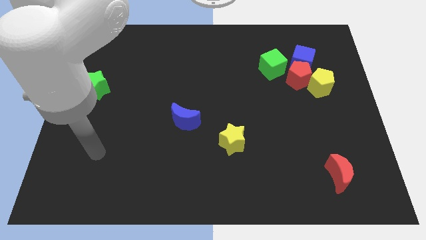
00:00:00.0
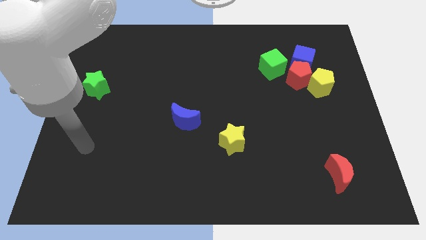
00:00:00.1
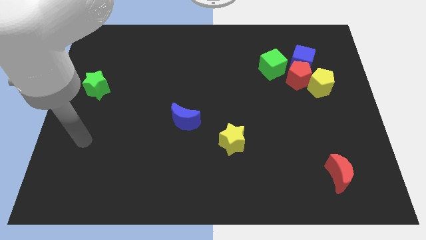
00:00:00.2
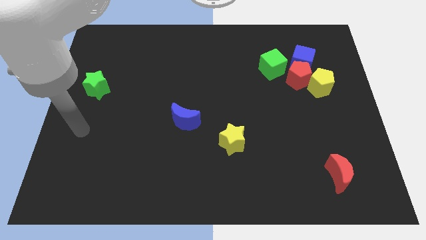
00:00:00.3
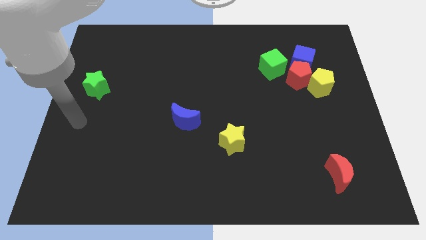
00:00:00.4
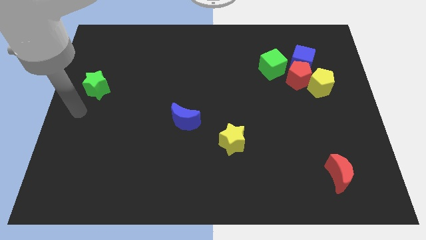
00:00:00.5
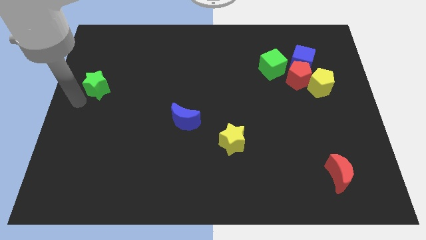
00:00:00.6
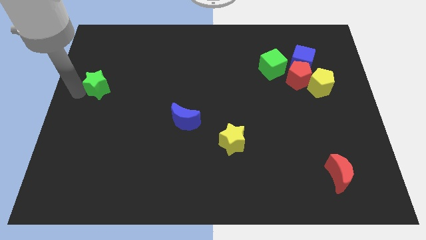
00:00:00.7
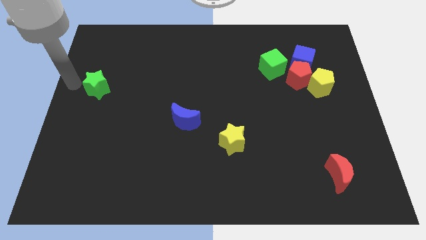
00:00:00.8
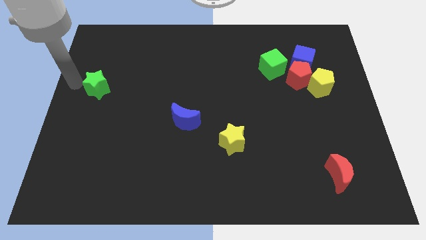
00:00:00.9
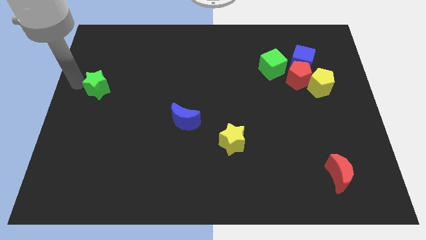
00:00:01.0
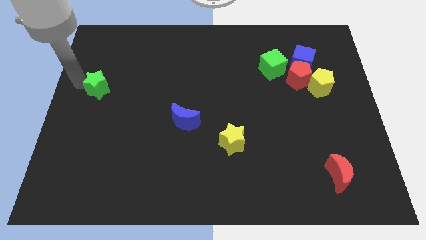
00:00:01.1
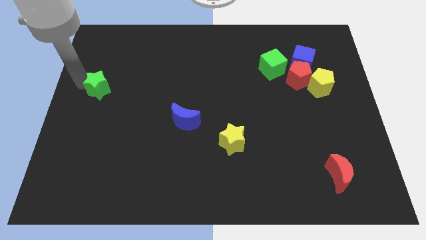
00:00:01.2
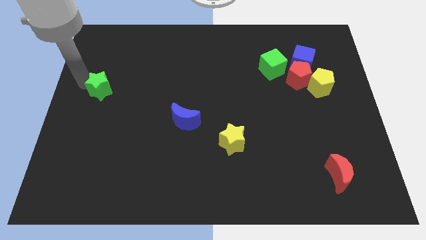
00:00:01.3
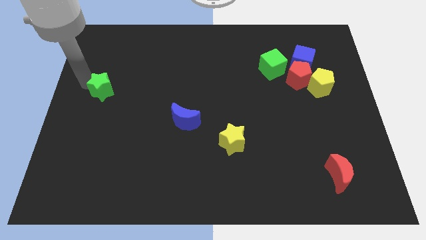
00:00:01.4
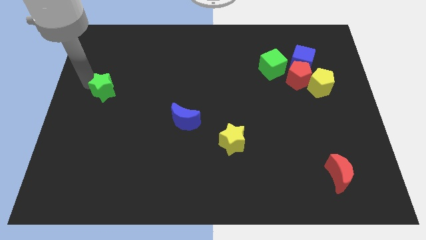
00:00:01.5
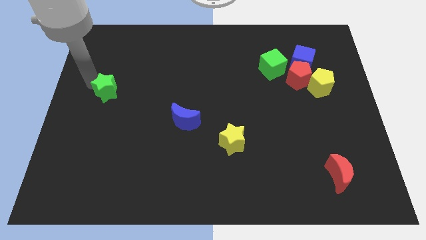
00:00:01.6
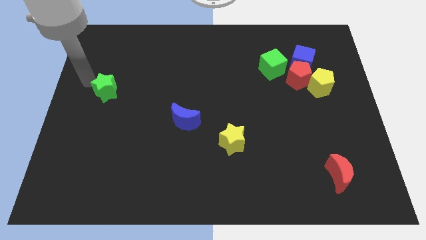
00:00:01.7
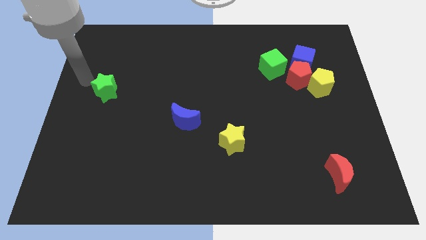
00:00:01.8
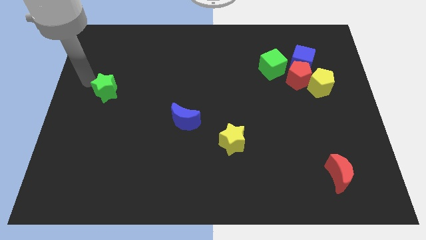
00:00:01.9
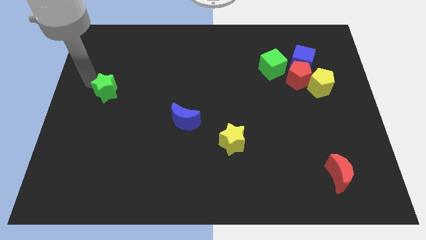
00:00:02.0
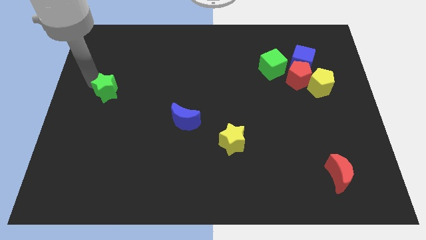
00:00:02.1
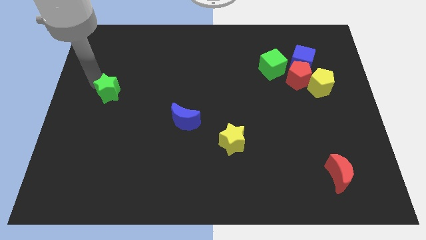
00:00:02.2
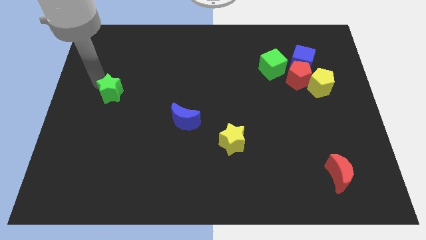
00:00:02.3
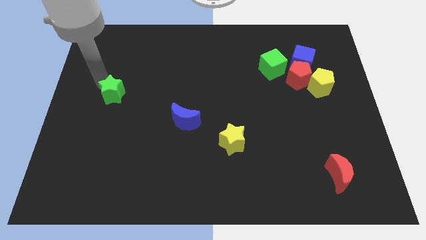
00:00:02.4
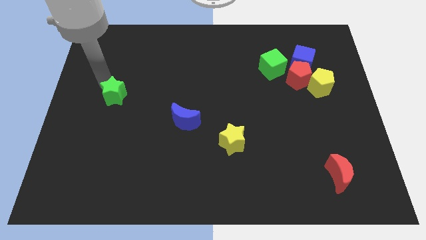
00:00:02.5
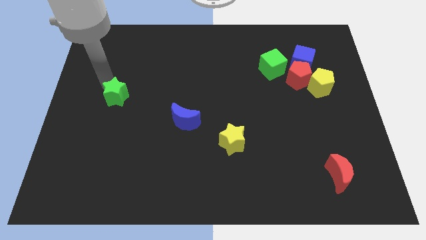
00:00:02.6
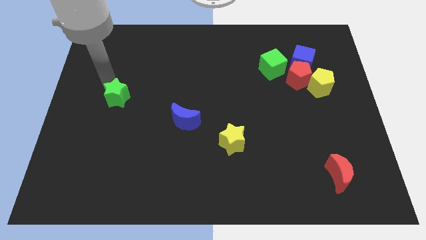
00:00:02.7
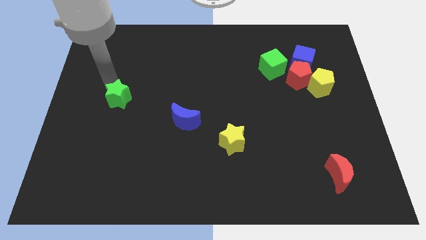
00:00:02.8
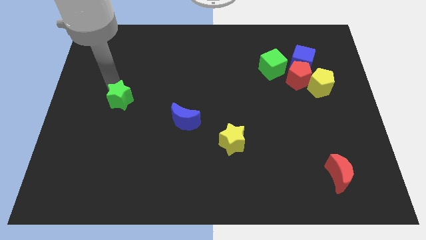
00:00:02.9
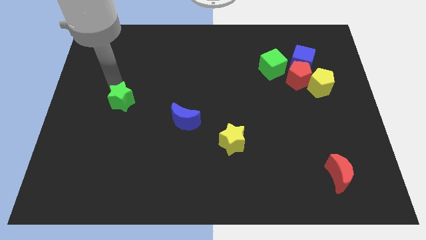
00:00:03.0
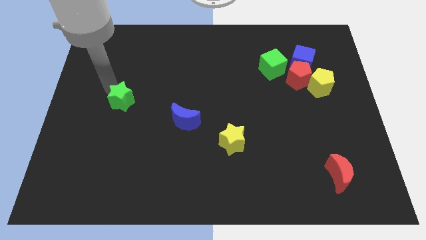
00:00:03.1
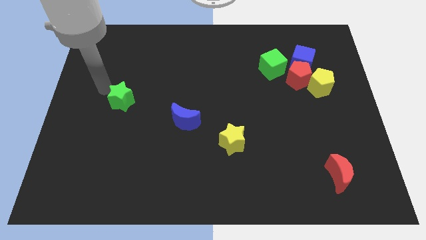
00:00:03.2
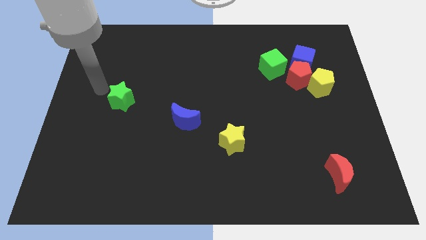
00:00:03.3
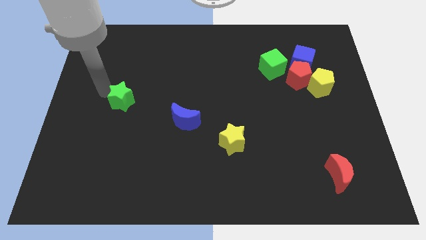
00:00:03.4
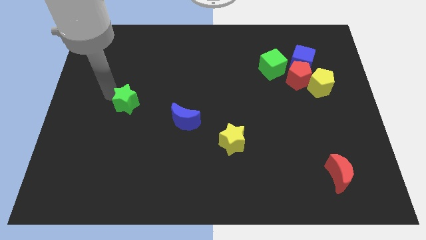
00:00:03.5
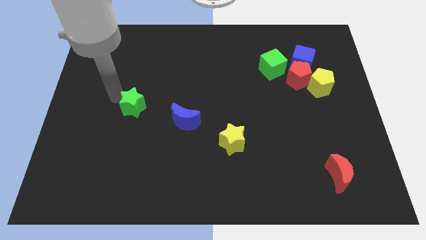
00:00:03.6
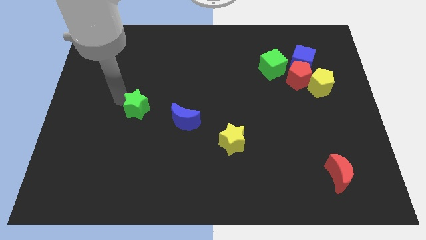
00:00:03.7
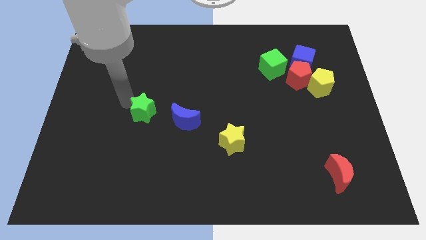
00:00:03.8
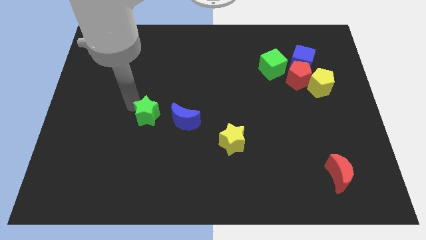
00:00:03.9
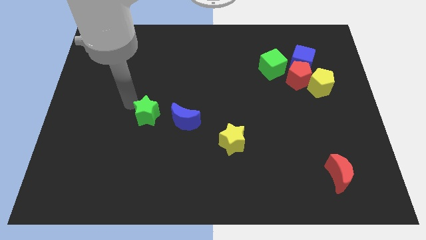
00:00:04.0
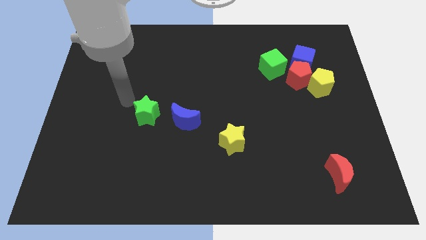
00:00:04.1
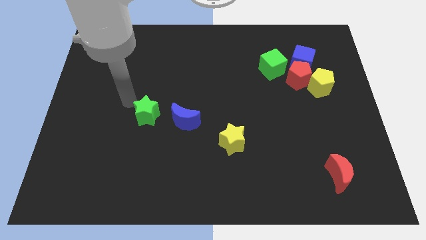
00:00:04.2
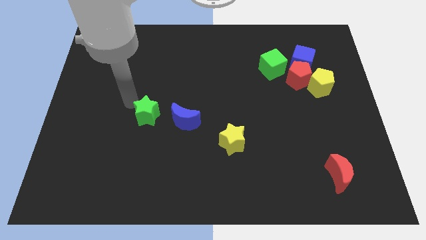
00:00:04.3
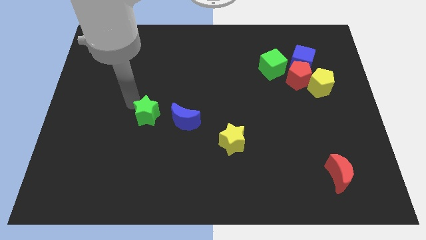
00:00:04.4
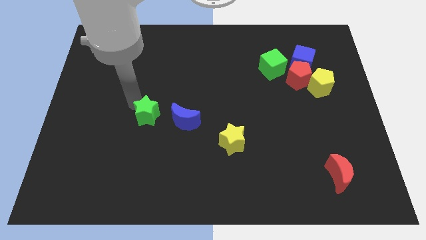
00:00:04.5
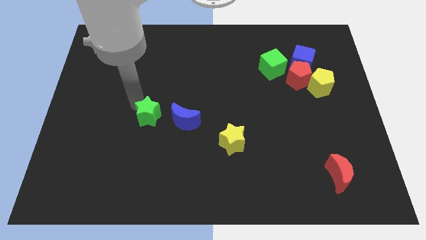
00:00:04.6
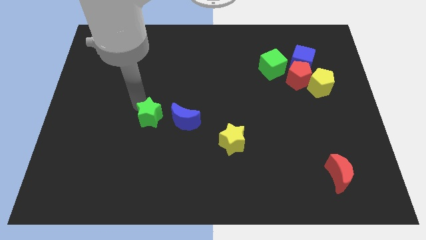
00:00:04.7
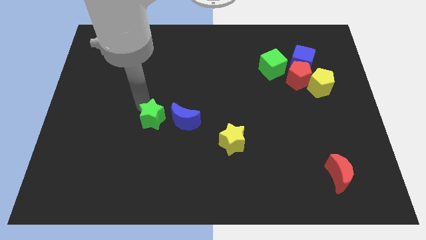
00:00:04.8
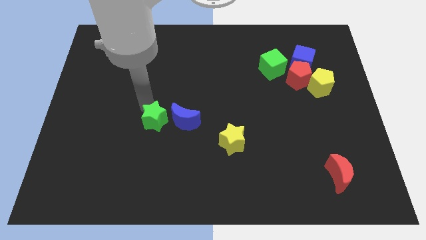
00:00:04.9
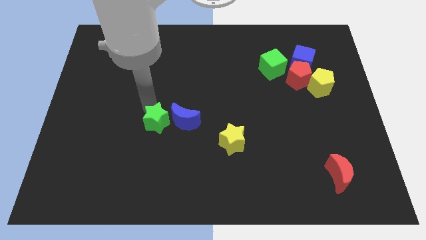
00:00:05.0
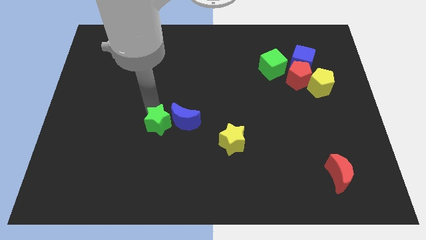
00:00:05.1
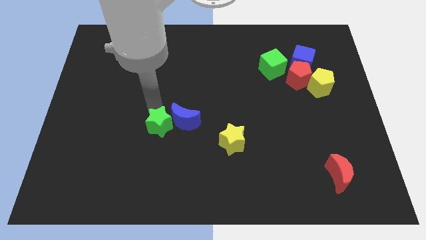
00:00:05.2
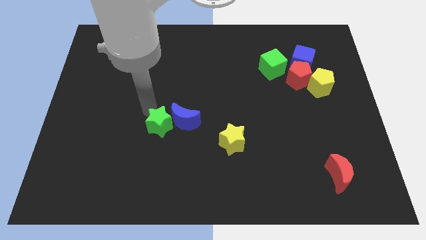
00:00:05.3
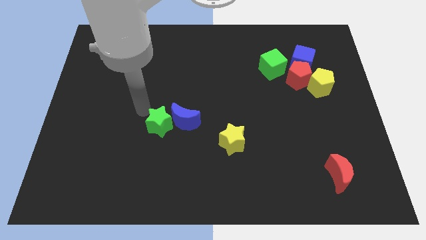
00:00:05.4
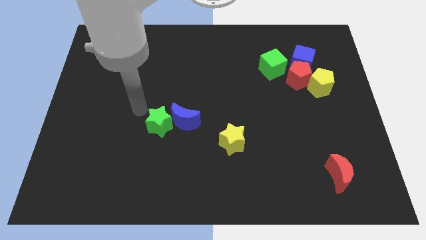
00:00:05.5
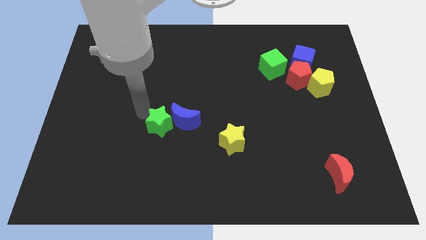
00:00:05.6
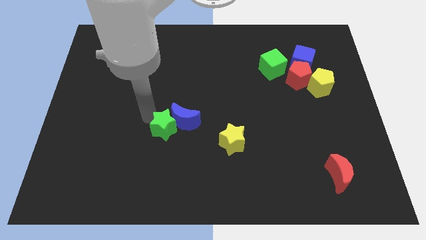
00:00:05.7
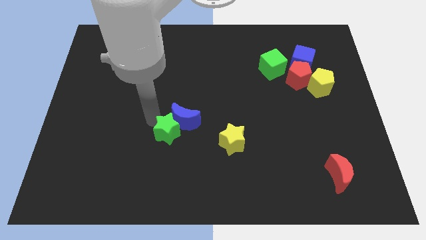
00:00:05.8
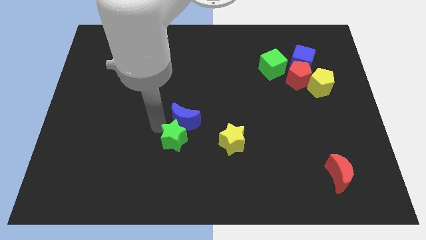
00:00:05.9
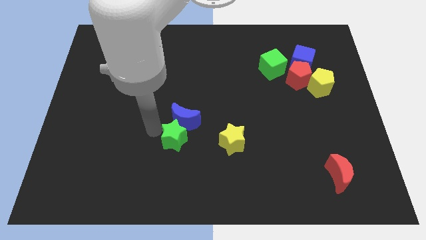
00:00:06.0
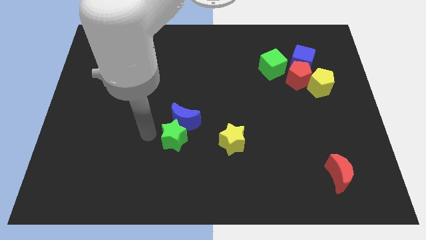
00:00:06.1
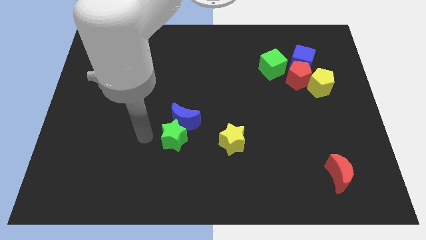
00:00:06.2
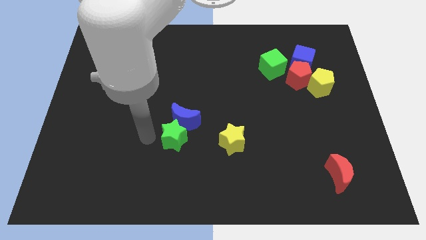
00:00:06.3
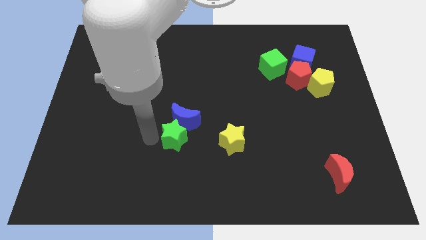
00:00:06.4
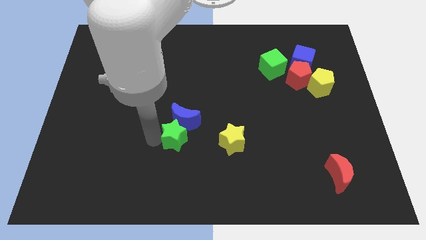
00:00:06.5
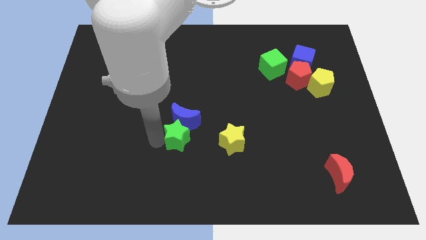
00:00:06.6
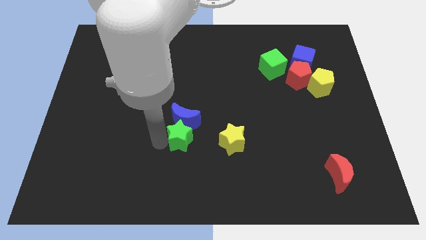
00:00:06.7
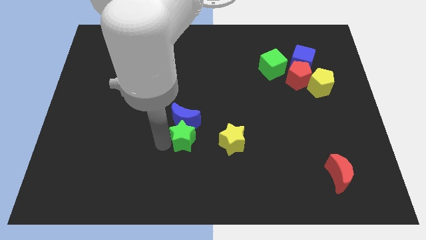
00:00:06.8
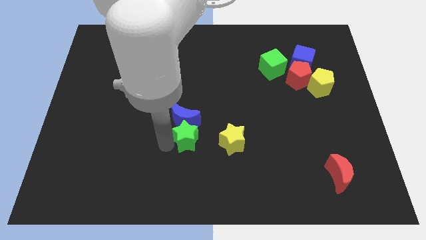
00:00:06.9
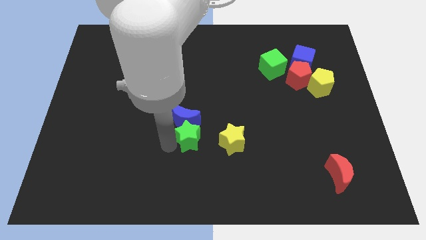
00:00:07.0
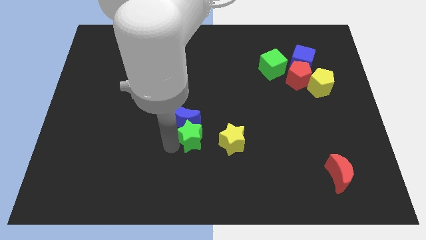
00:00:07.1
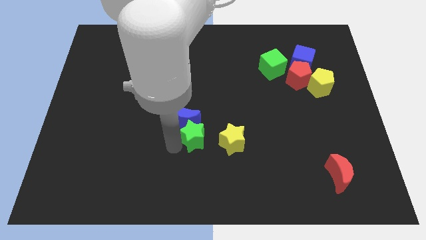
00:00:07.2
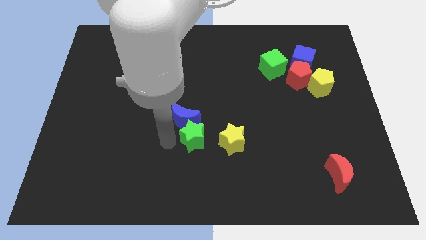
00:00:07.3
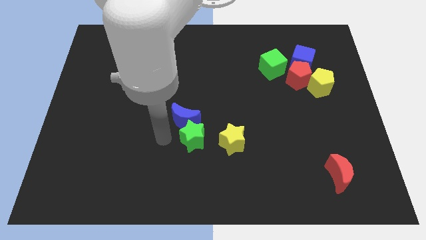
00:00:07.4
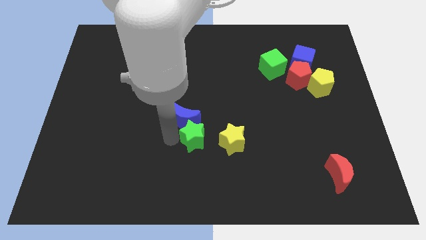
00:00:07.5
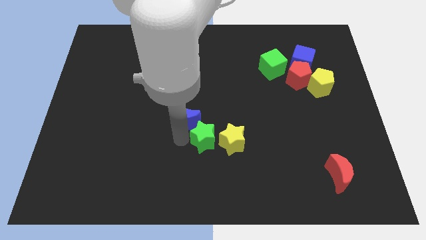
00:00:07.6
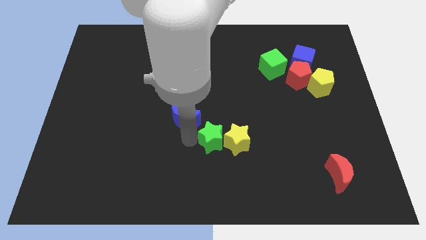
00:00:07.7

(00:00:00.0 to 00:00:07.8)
slide the green star close to the yellow star
